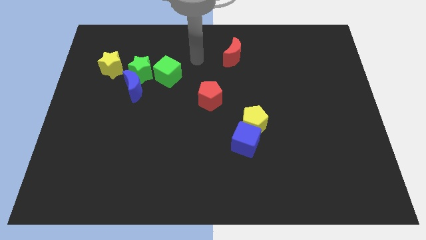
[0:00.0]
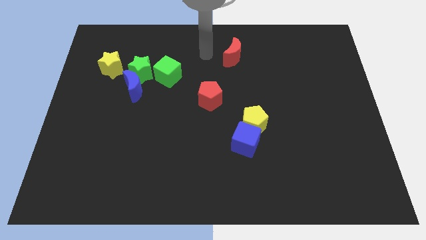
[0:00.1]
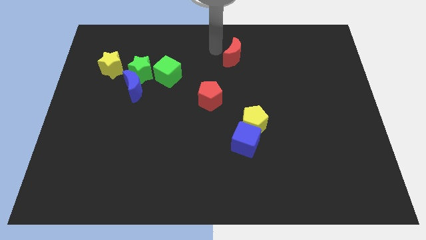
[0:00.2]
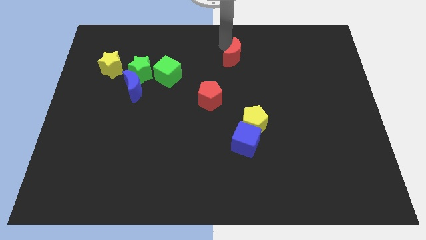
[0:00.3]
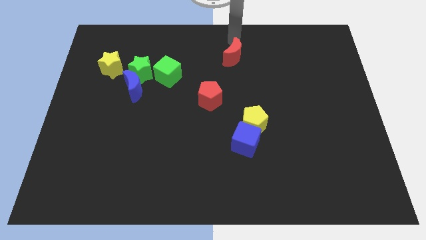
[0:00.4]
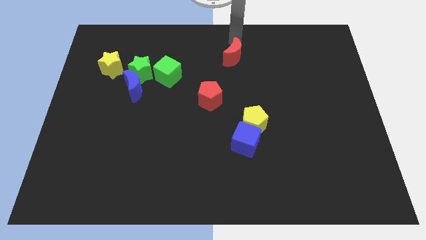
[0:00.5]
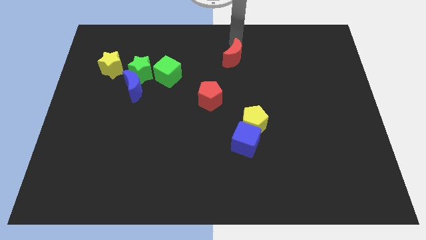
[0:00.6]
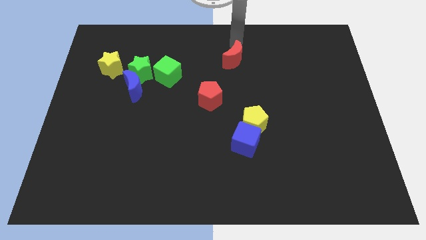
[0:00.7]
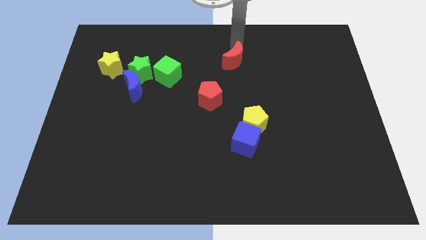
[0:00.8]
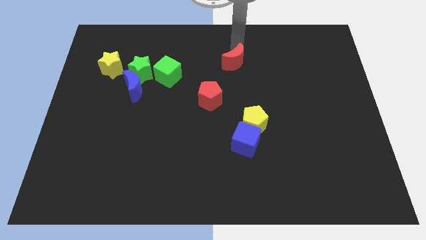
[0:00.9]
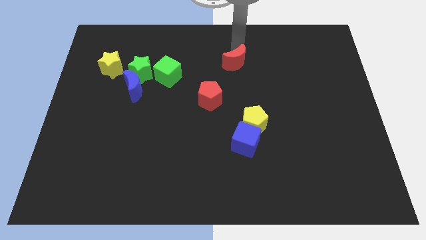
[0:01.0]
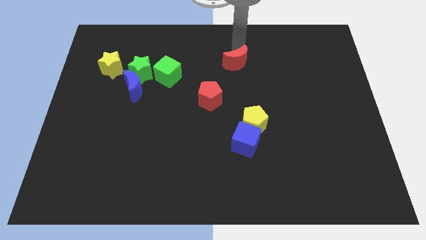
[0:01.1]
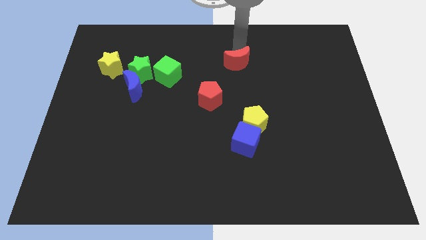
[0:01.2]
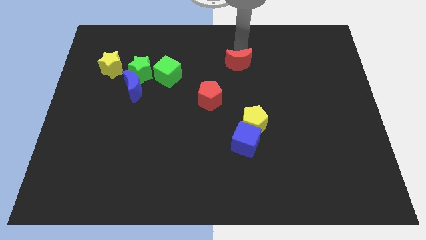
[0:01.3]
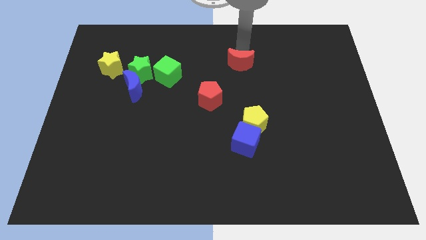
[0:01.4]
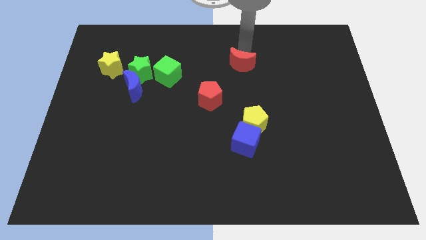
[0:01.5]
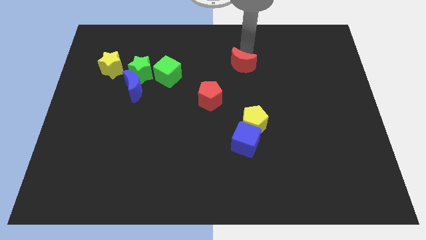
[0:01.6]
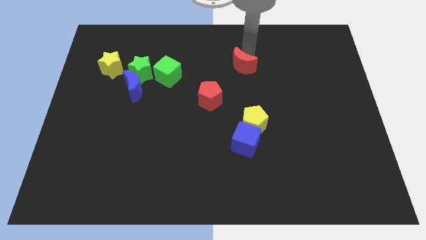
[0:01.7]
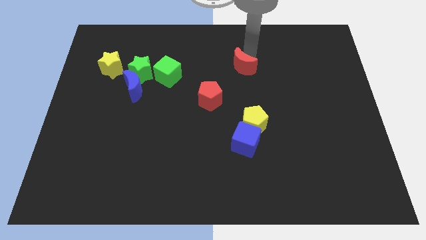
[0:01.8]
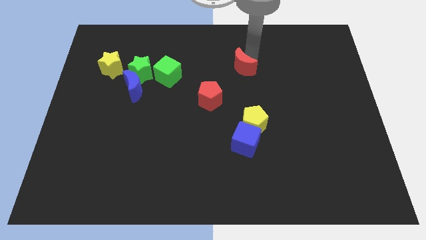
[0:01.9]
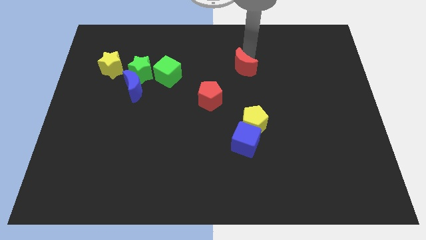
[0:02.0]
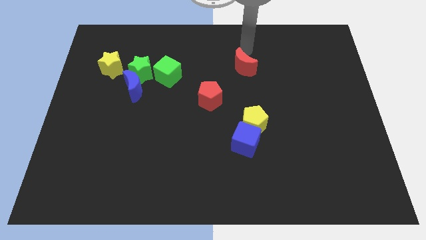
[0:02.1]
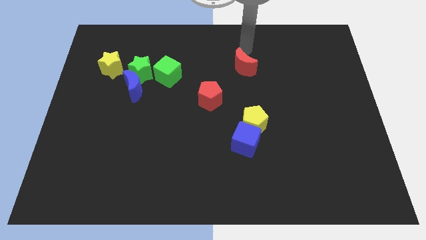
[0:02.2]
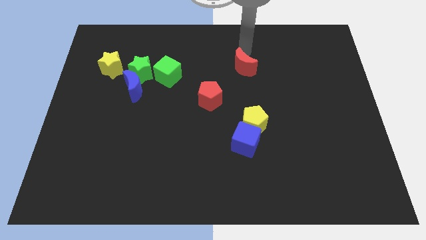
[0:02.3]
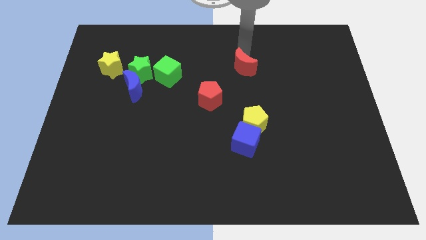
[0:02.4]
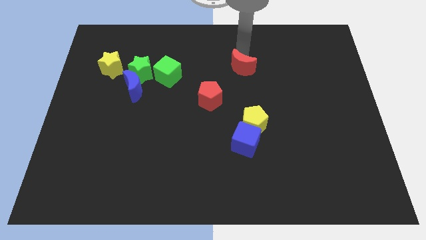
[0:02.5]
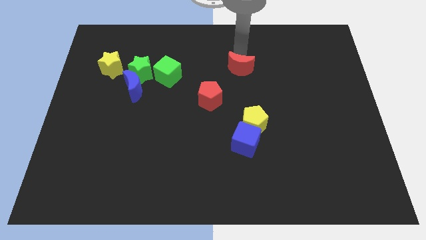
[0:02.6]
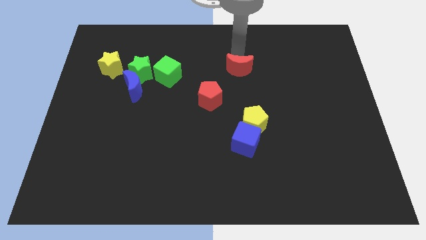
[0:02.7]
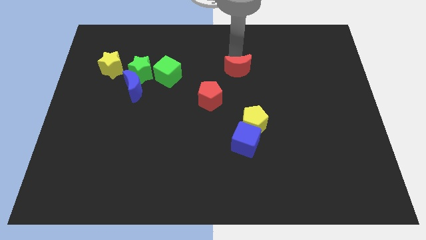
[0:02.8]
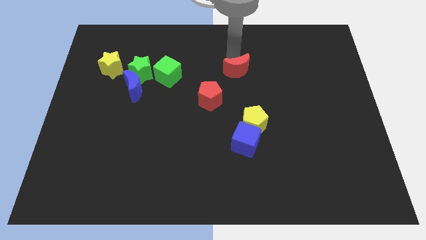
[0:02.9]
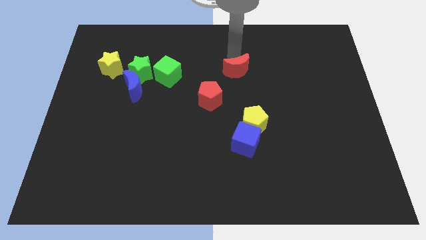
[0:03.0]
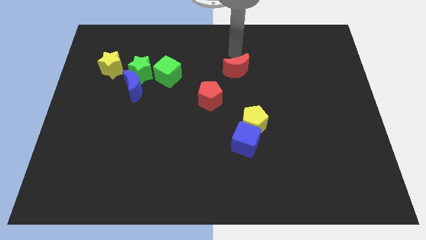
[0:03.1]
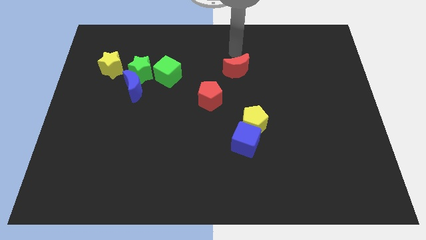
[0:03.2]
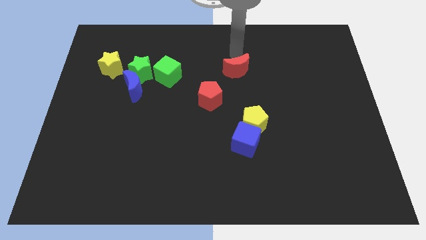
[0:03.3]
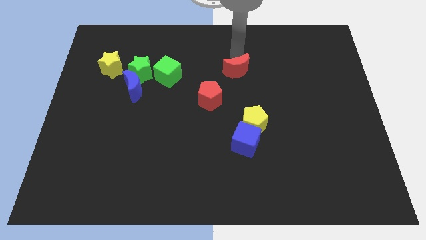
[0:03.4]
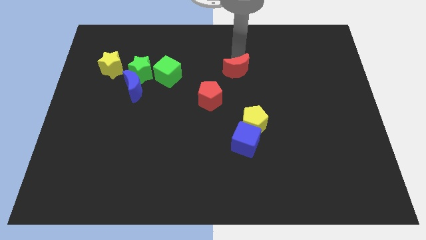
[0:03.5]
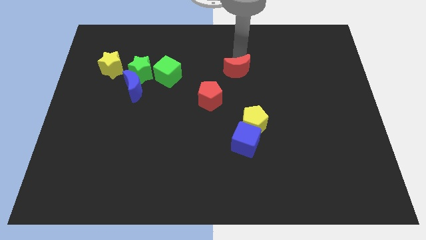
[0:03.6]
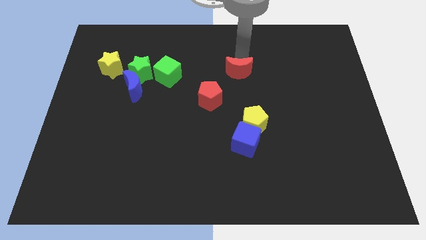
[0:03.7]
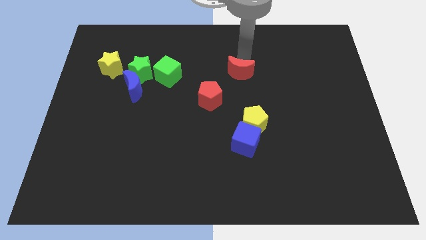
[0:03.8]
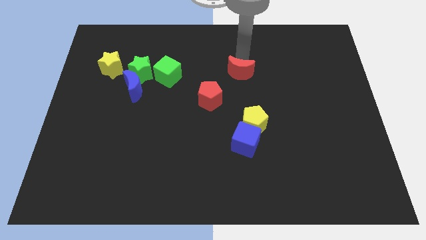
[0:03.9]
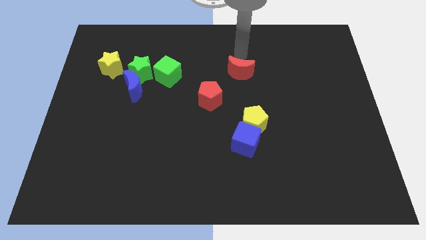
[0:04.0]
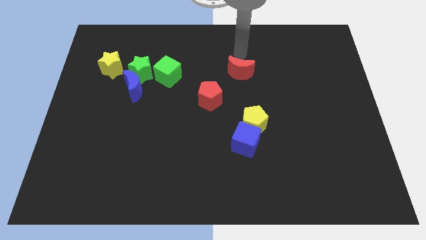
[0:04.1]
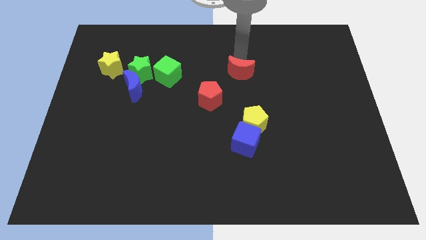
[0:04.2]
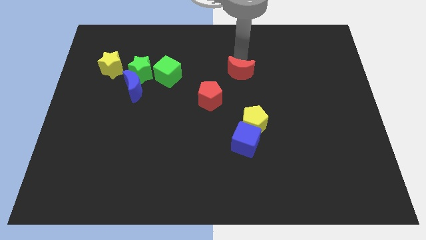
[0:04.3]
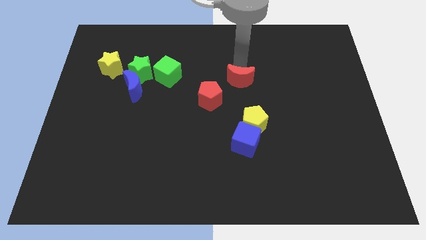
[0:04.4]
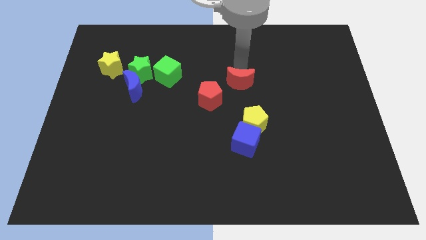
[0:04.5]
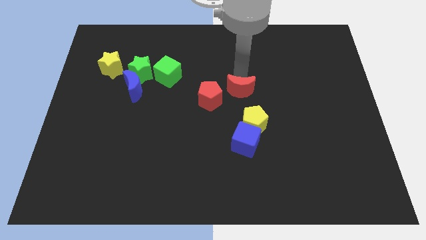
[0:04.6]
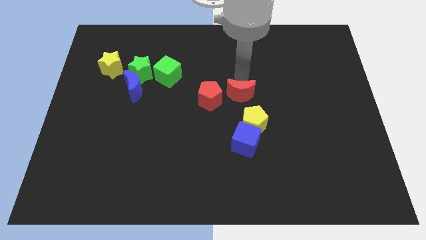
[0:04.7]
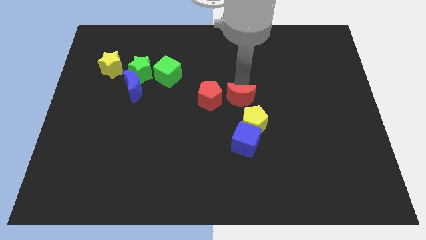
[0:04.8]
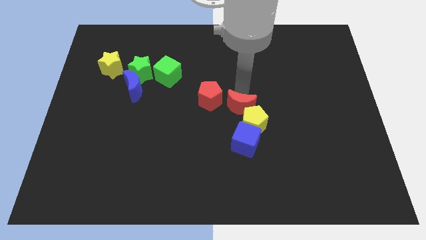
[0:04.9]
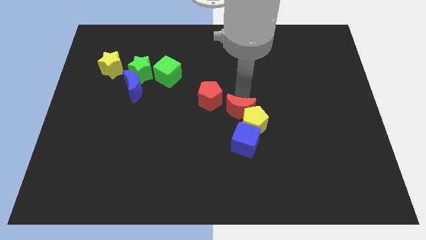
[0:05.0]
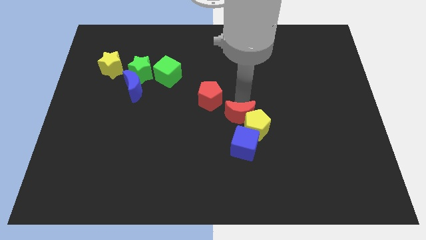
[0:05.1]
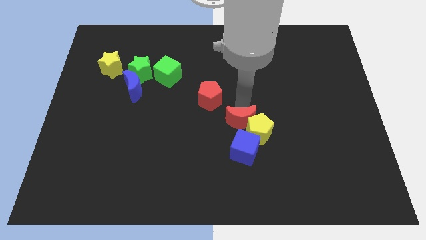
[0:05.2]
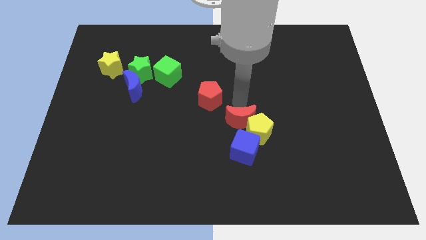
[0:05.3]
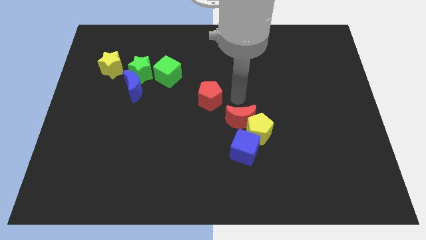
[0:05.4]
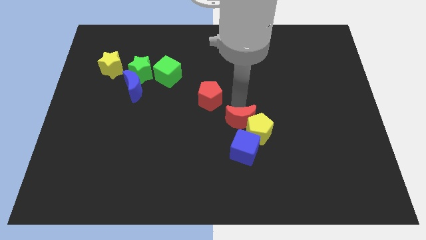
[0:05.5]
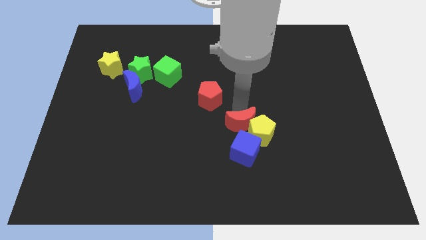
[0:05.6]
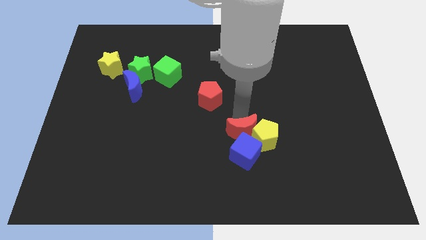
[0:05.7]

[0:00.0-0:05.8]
push the red moon towards the blue cube
